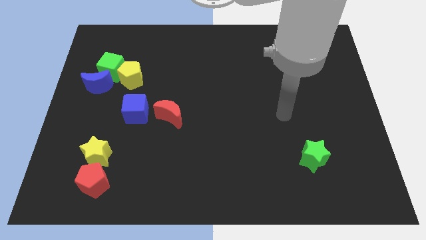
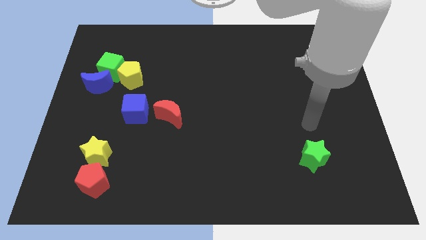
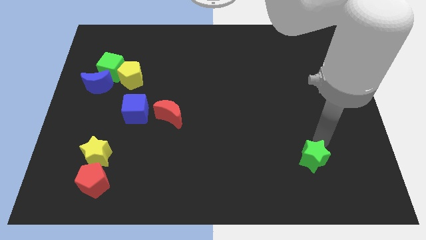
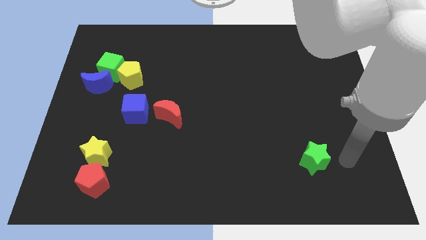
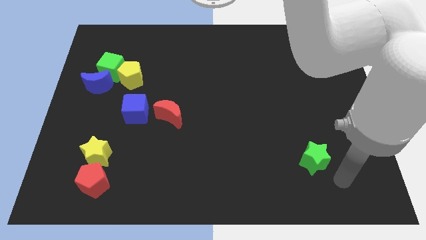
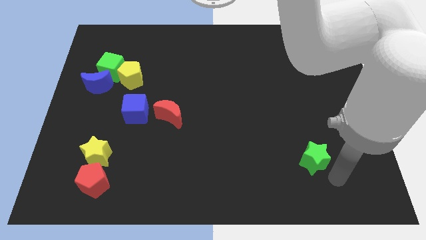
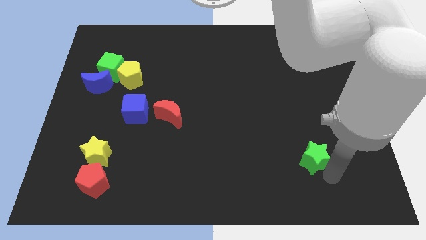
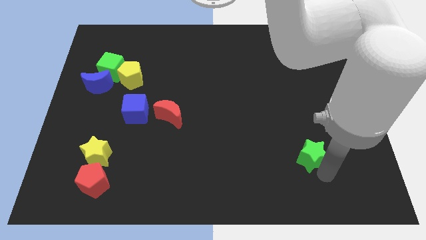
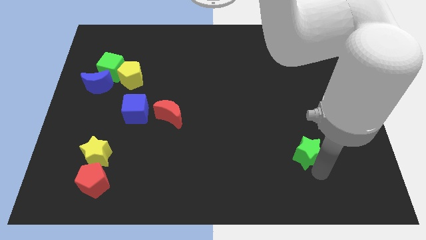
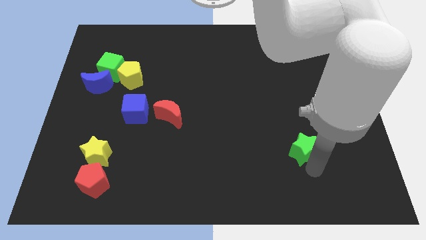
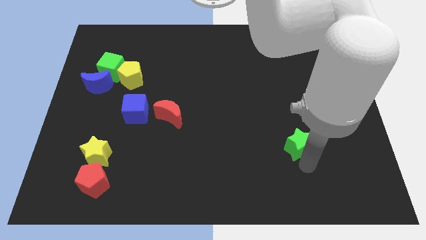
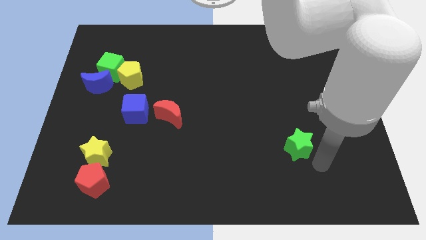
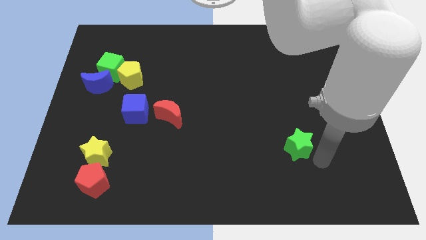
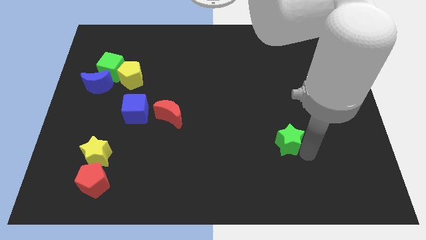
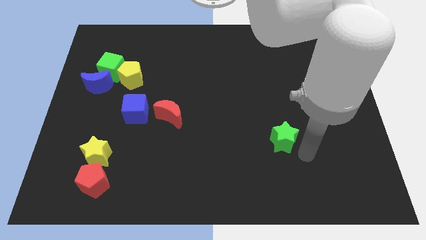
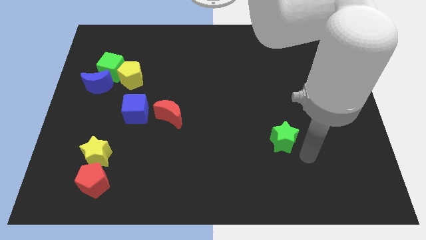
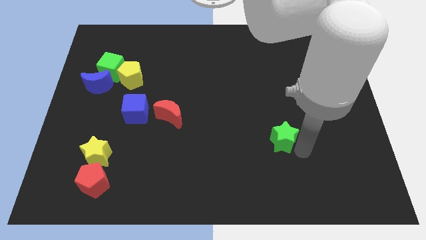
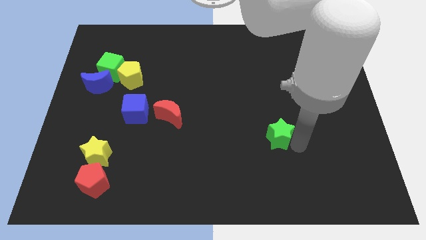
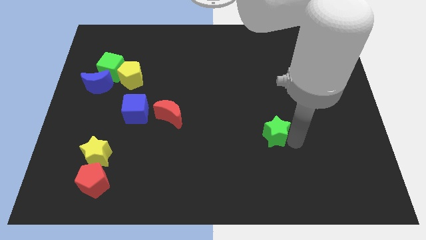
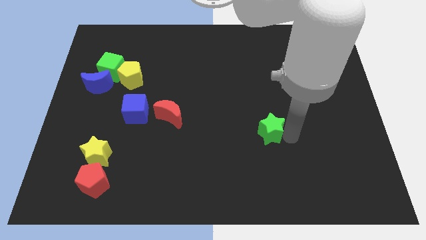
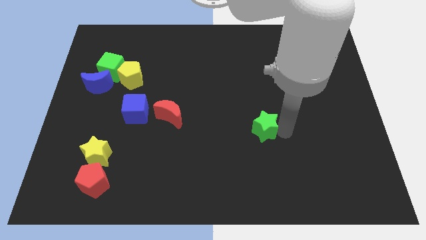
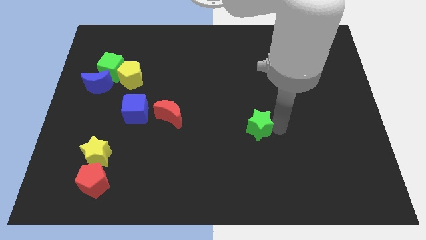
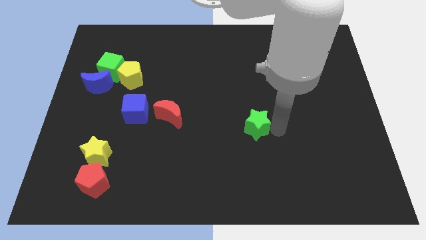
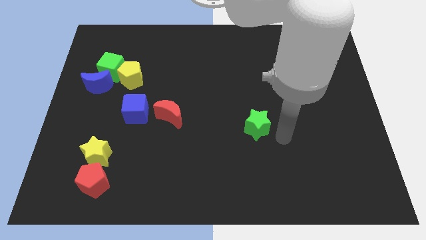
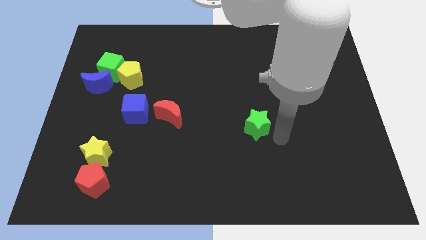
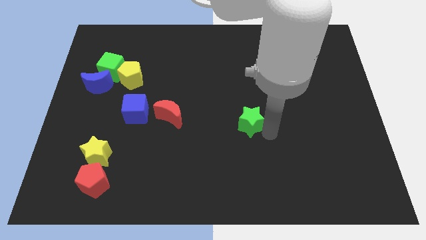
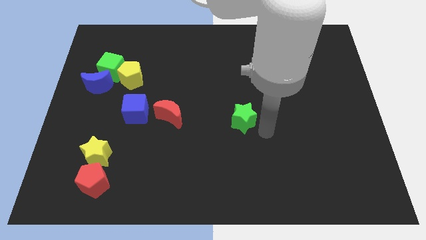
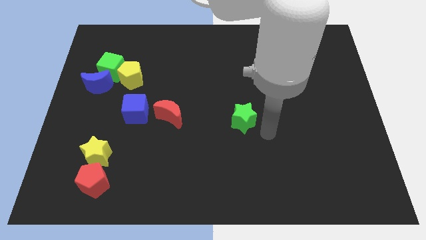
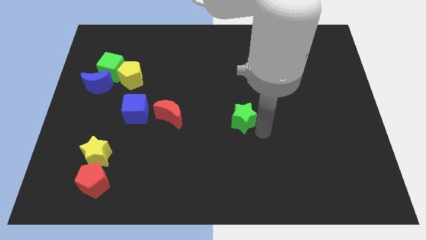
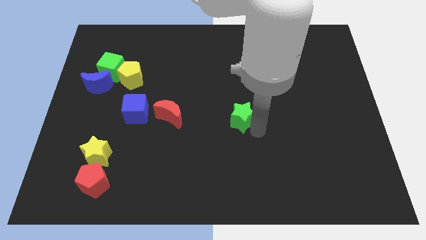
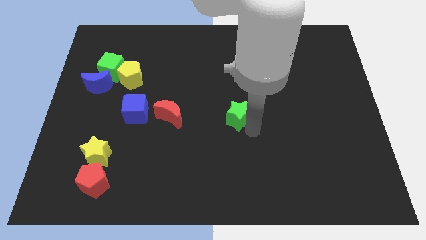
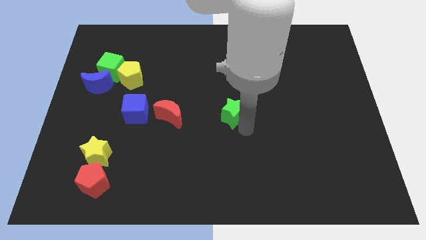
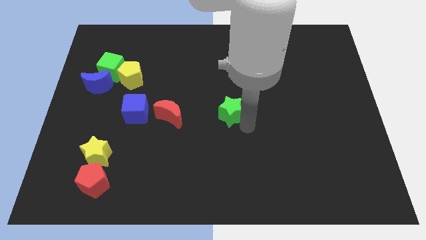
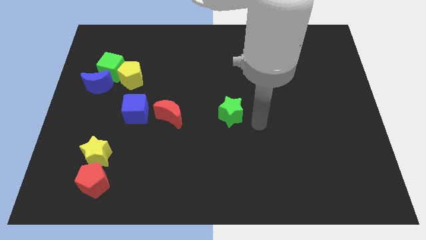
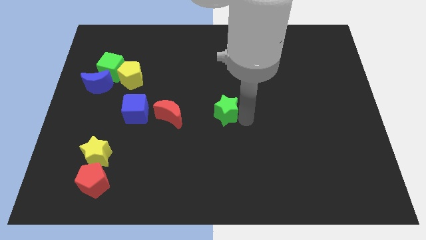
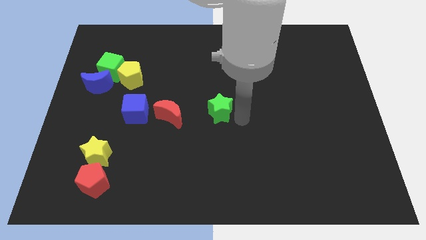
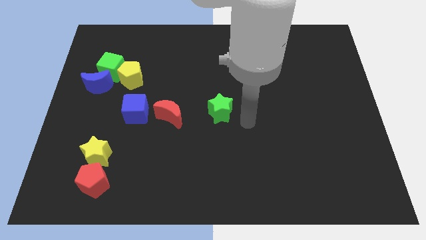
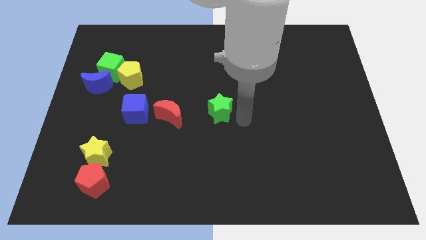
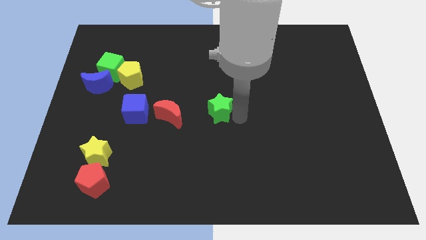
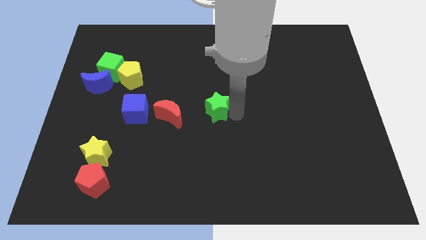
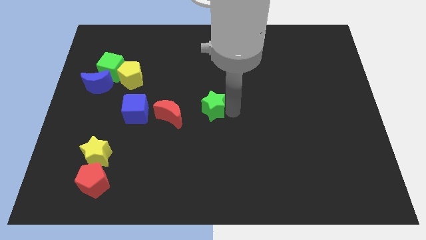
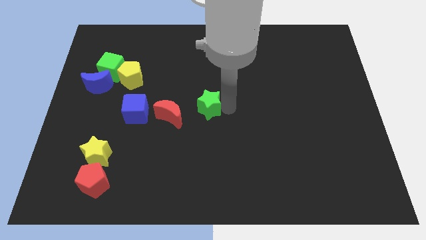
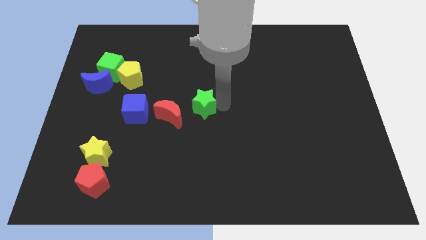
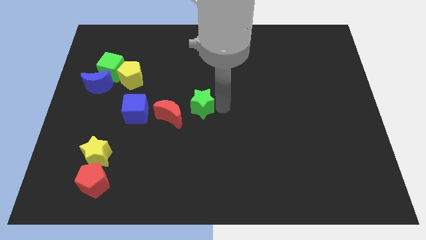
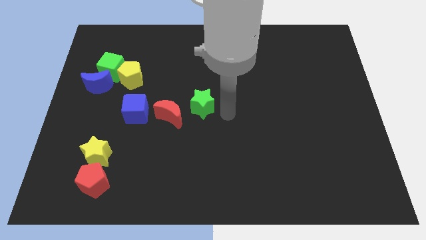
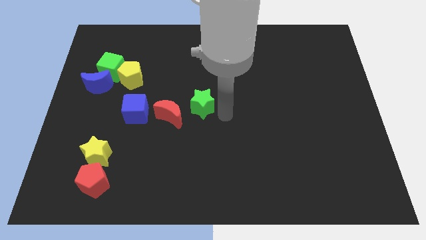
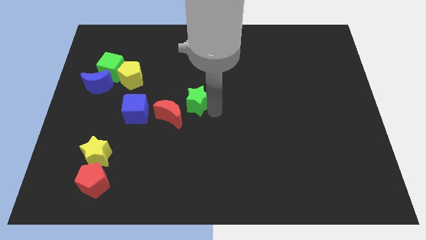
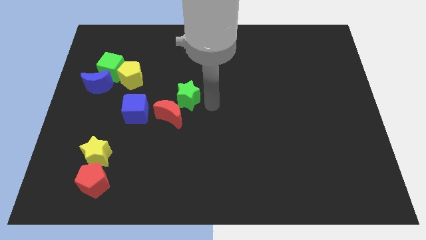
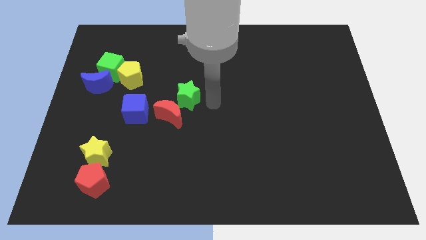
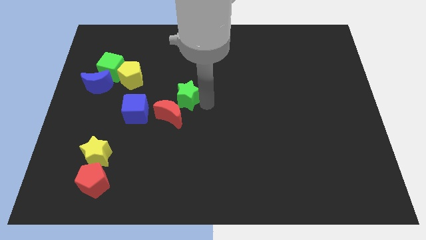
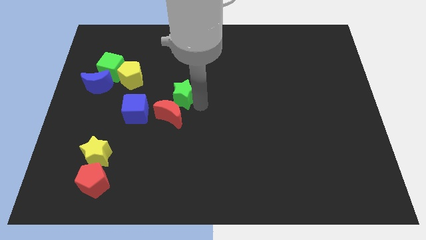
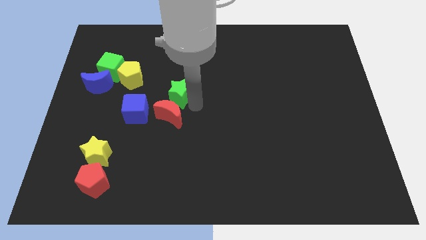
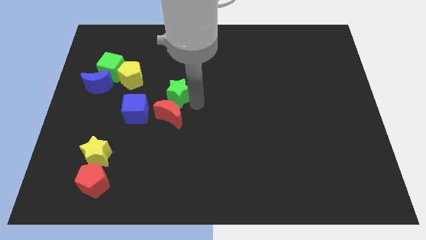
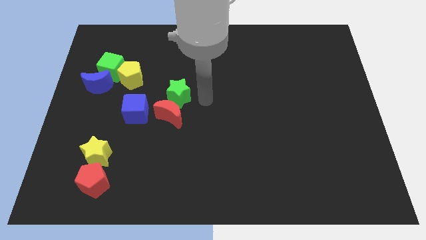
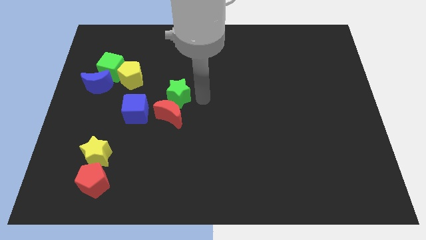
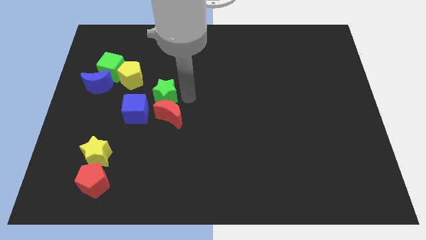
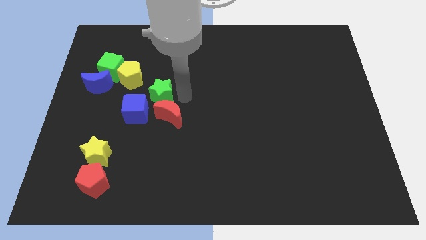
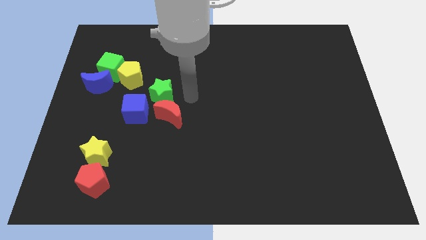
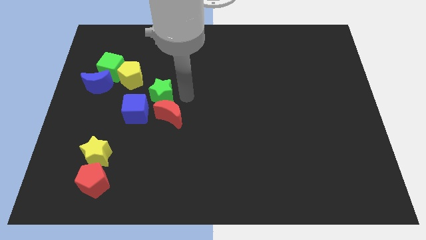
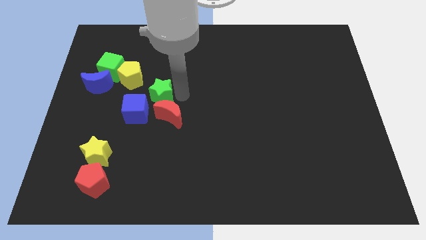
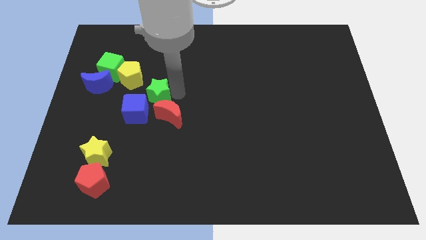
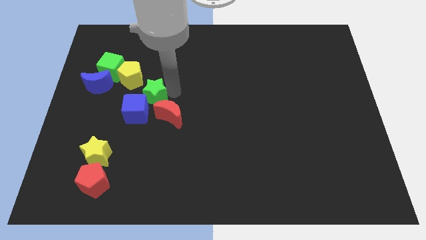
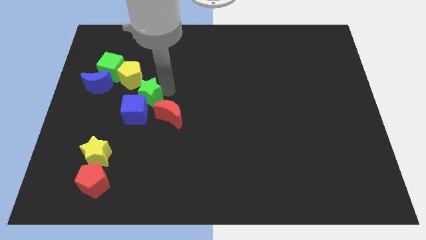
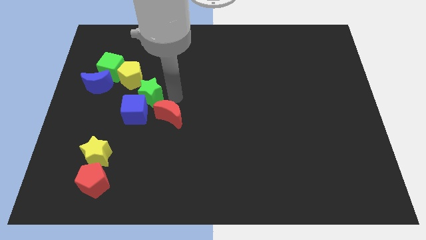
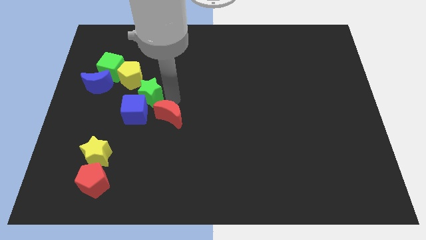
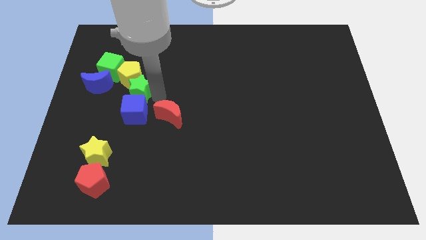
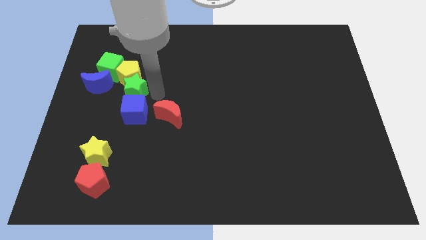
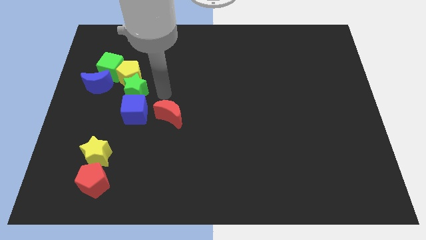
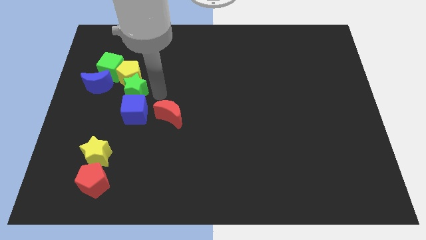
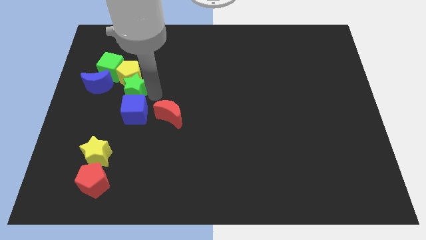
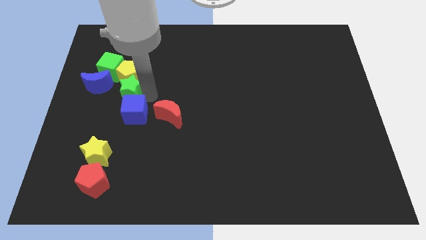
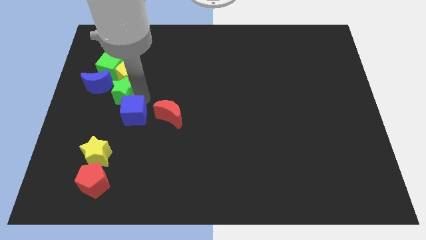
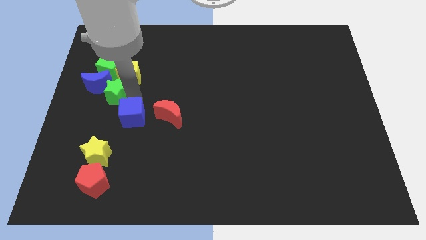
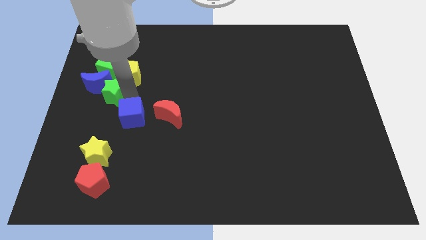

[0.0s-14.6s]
put the green star close to the blue moon
